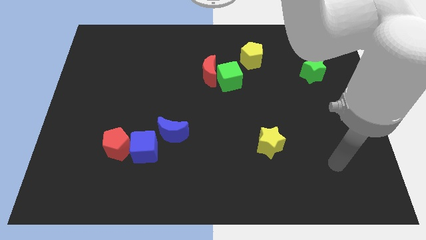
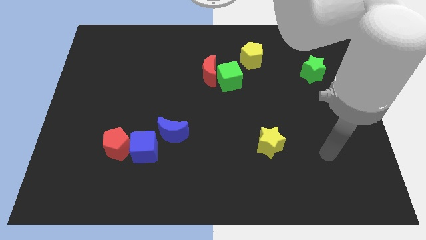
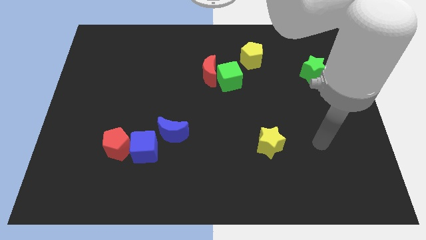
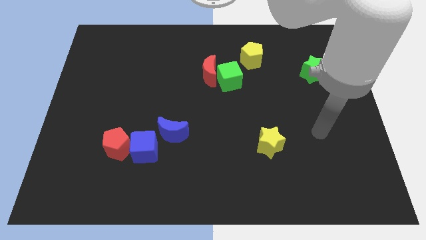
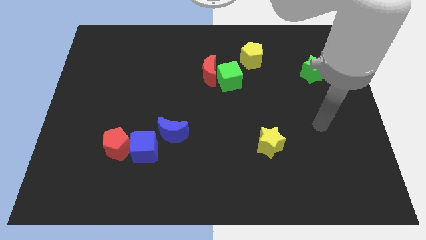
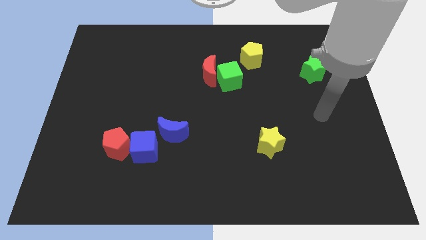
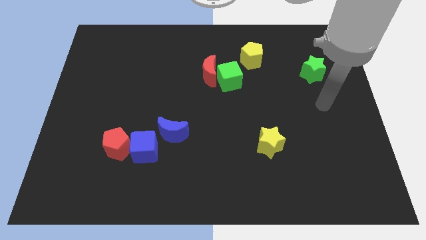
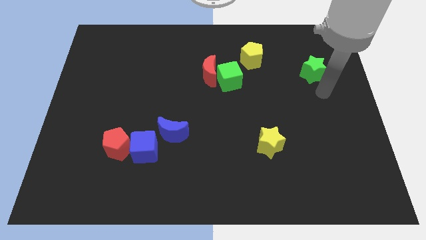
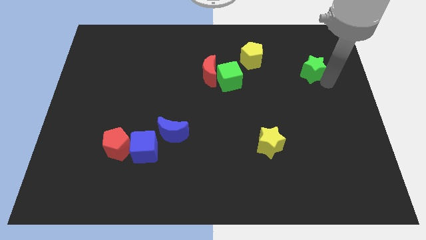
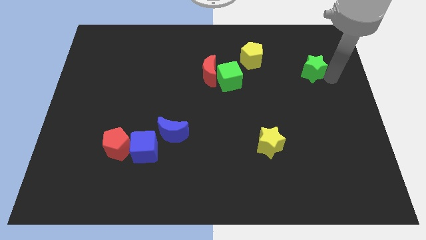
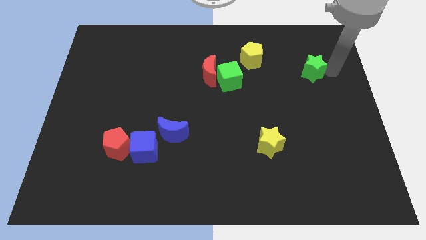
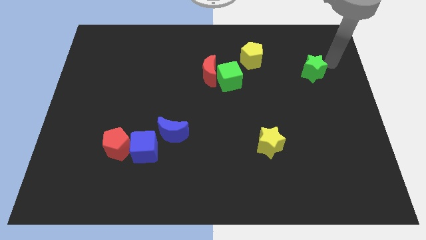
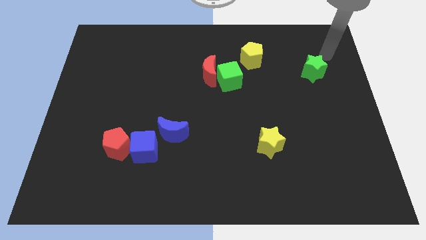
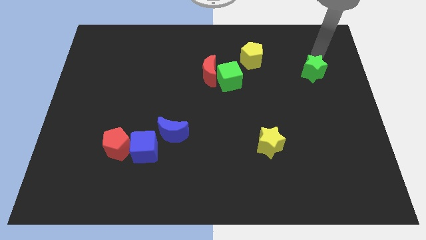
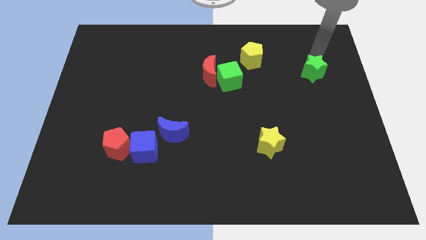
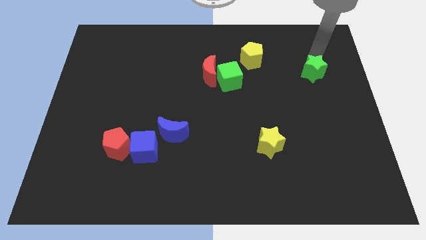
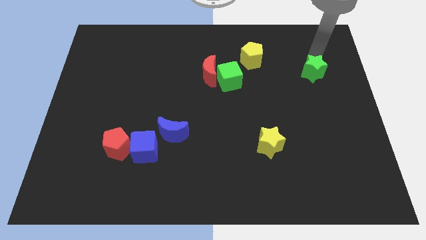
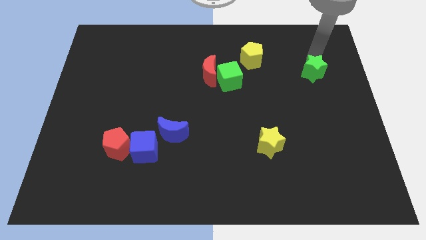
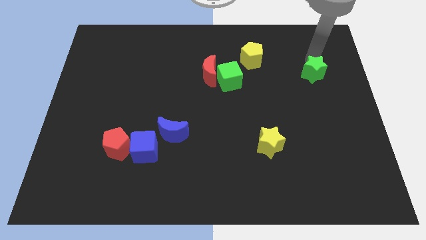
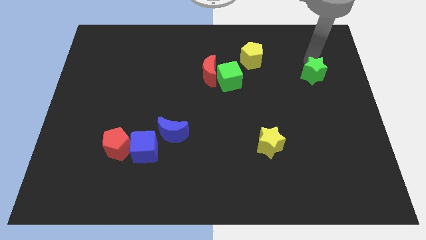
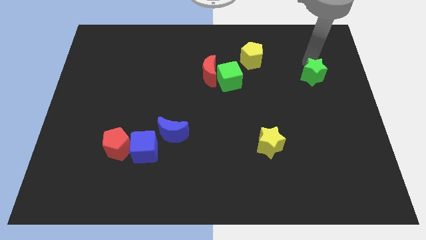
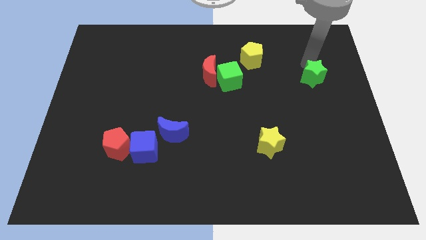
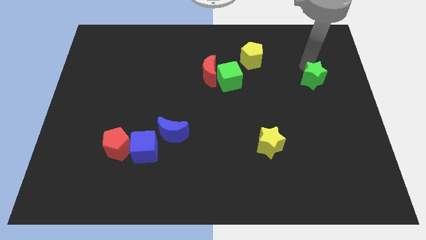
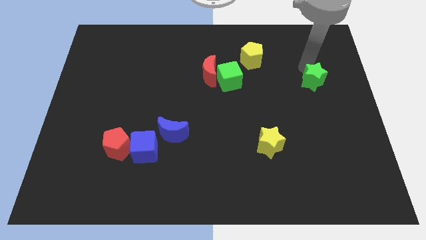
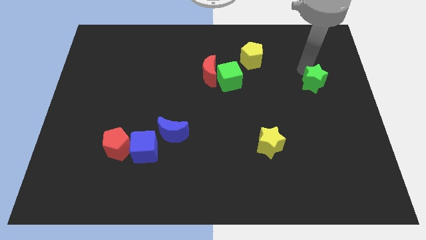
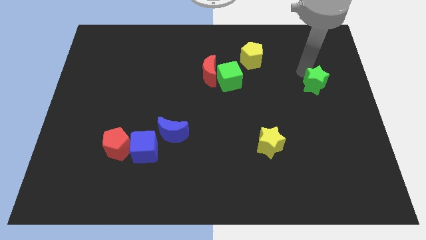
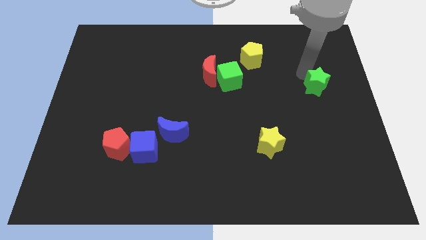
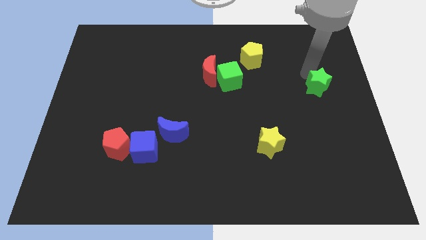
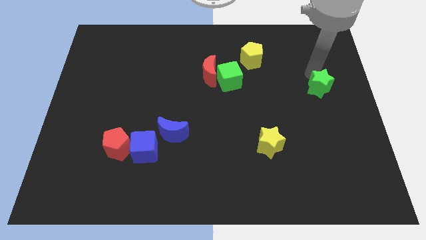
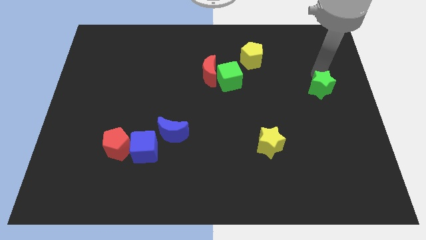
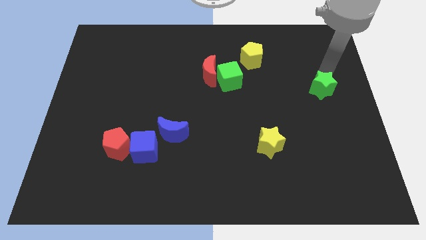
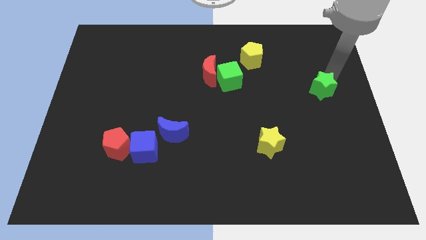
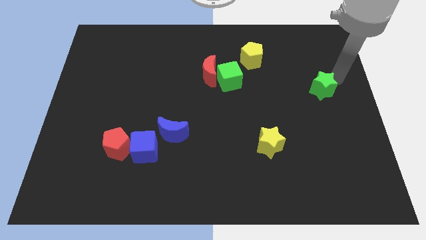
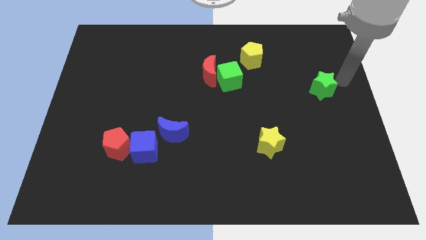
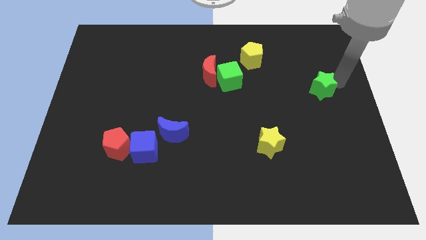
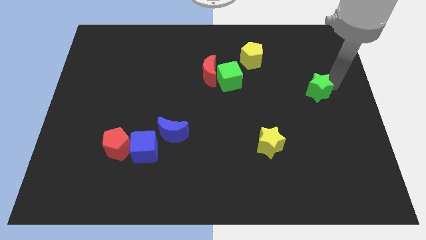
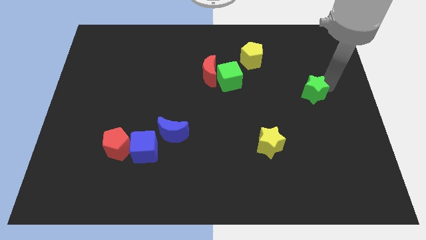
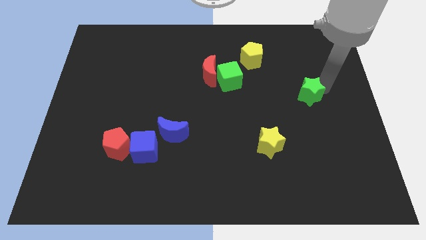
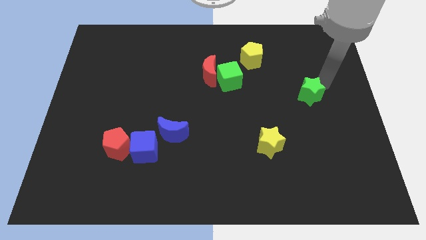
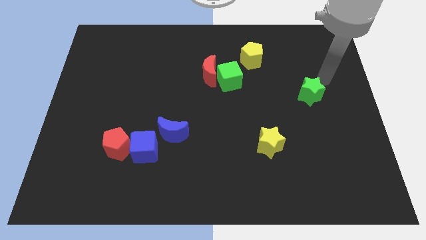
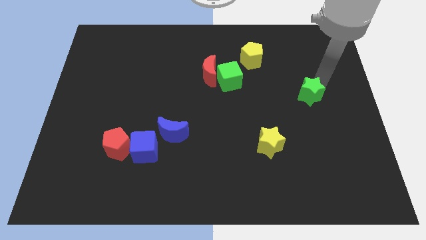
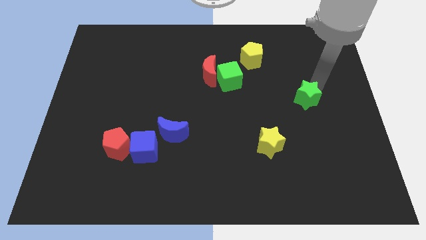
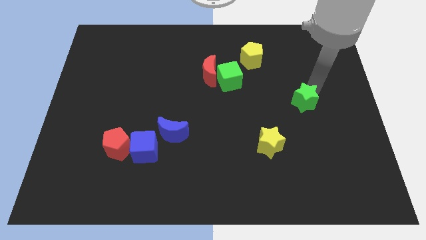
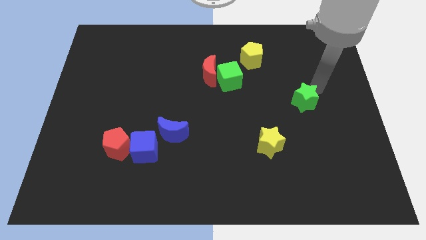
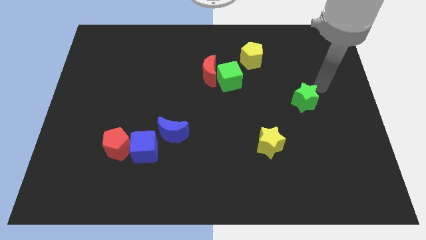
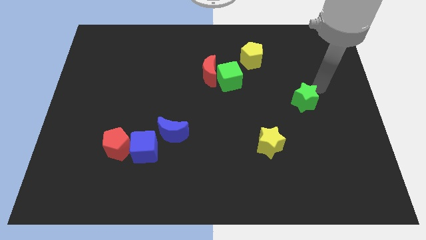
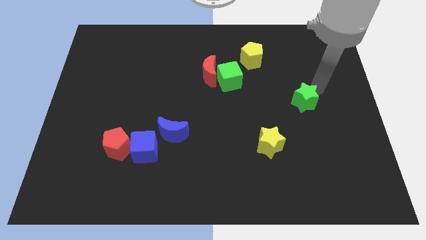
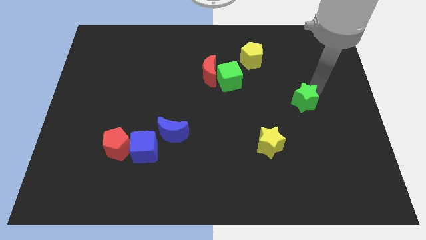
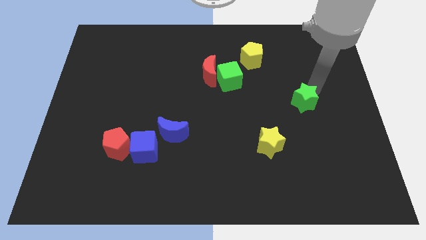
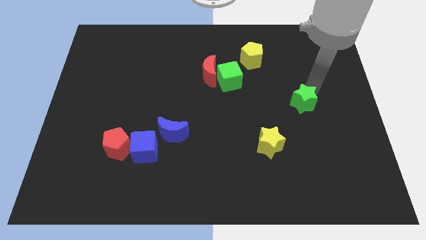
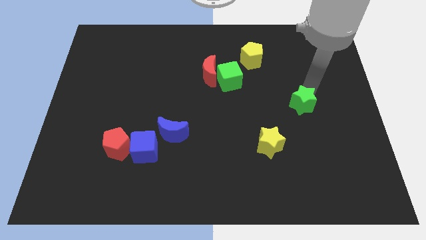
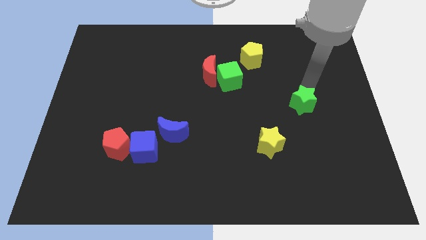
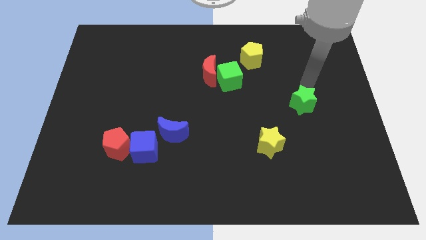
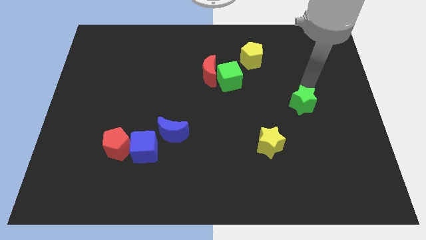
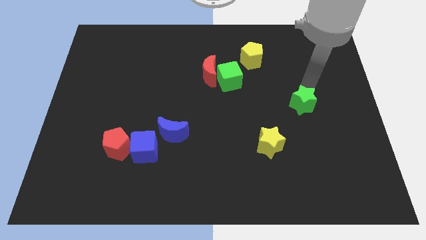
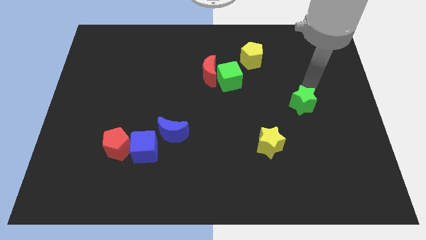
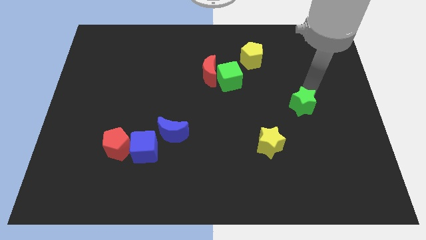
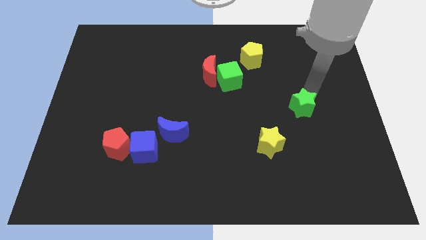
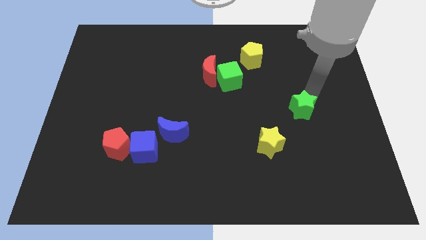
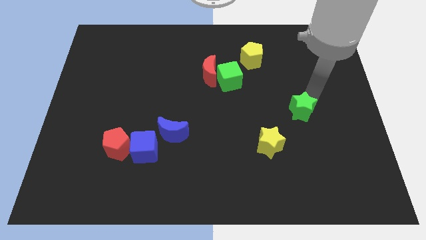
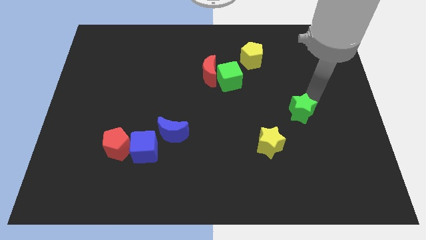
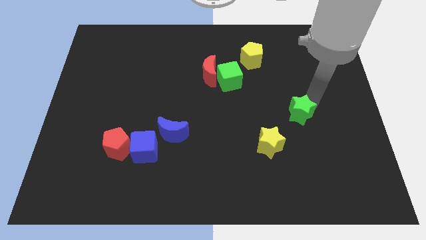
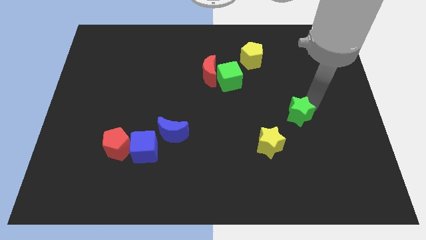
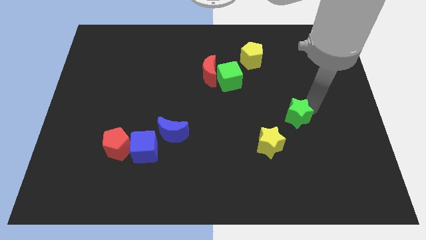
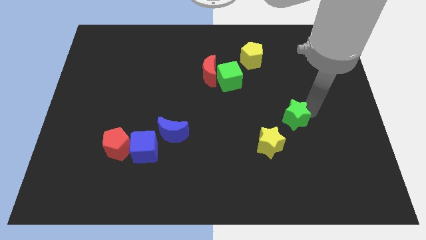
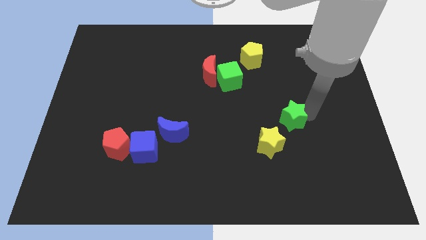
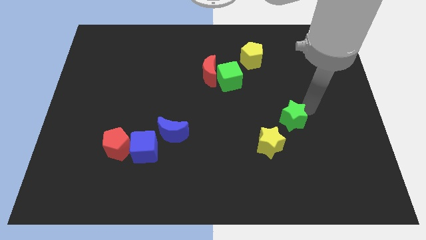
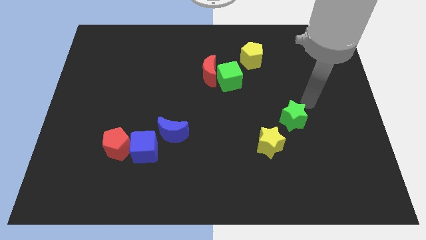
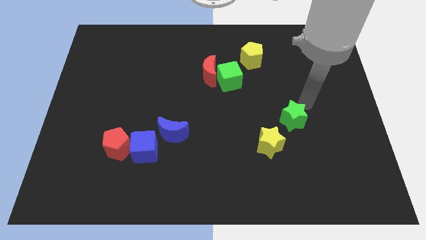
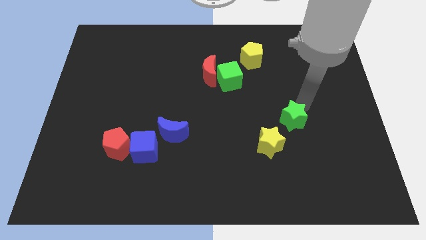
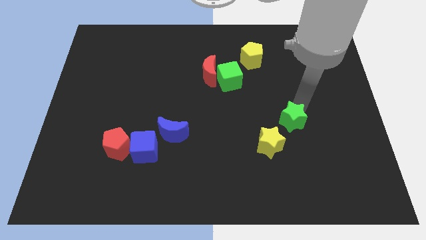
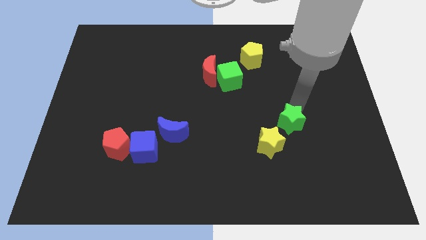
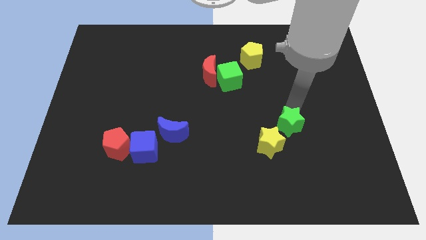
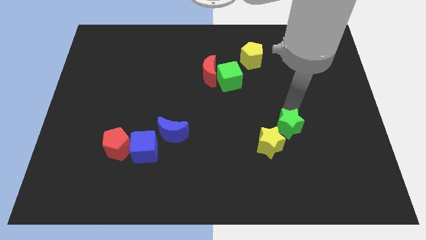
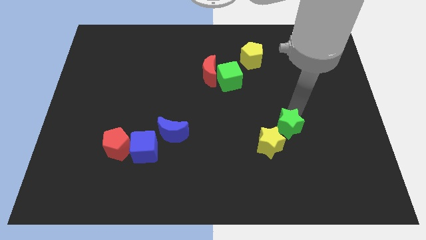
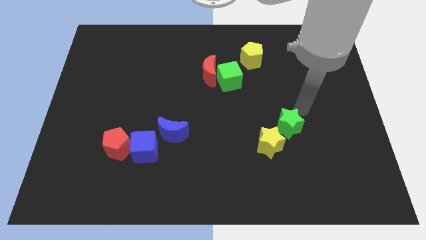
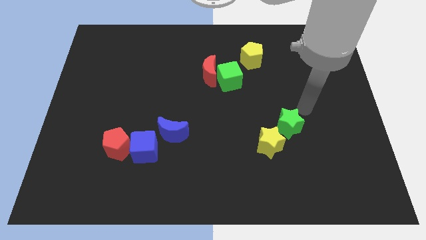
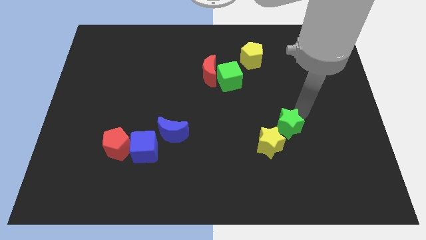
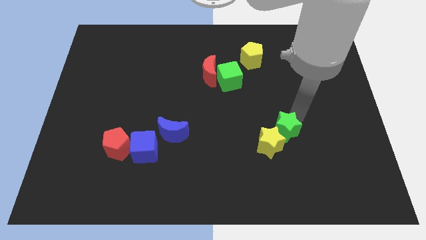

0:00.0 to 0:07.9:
slide the green star towards the yellow star
